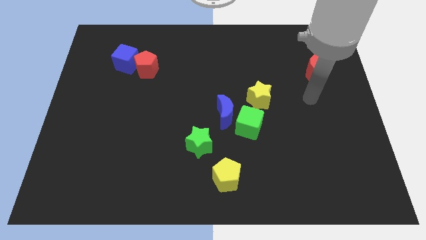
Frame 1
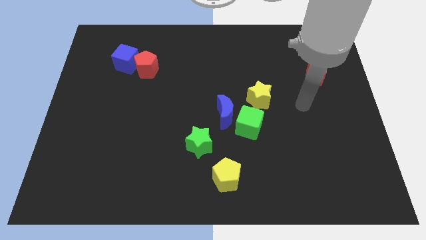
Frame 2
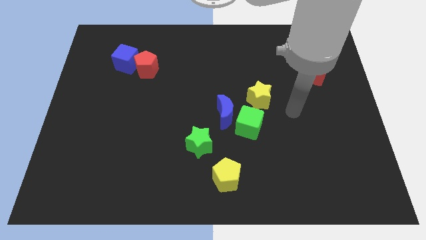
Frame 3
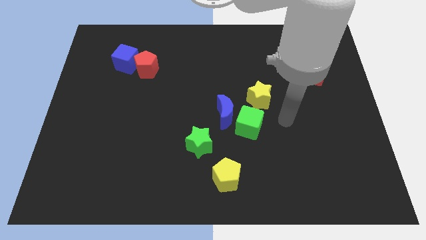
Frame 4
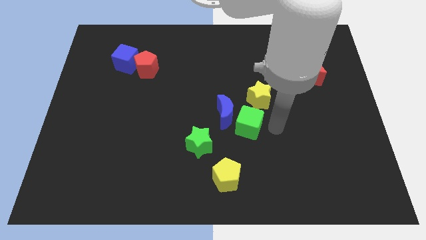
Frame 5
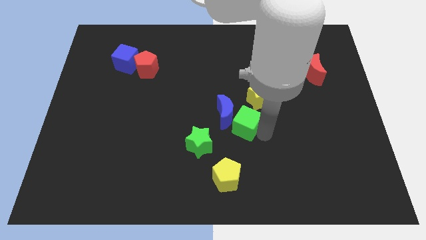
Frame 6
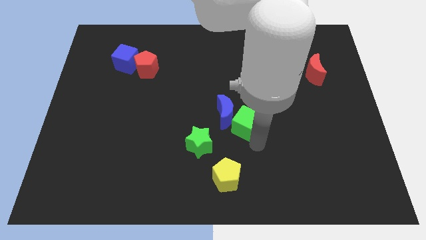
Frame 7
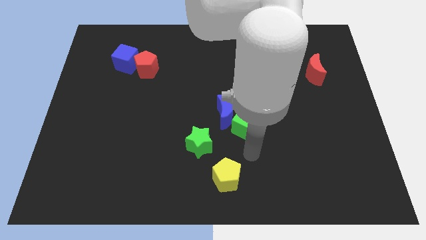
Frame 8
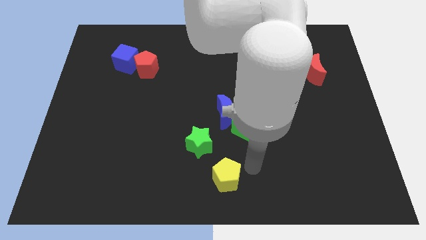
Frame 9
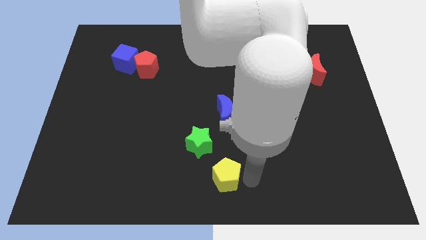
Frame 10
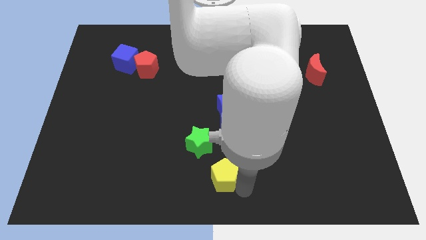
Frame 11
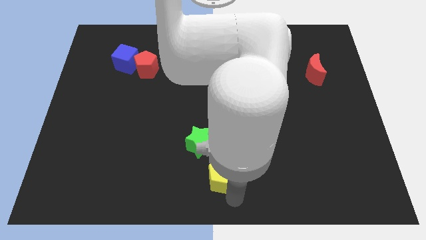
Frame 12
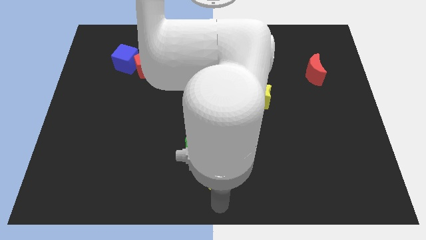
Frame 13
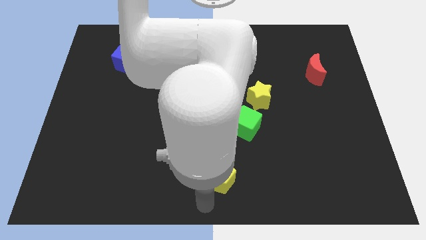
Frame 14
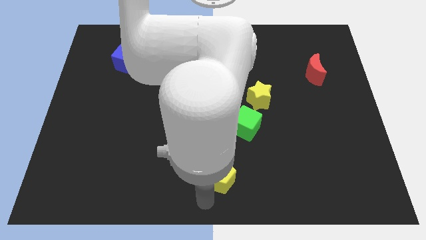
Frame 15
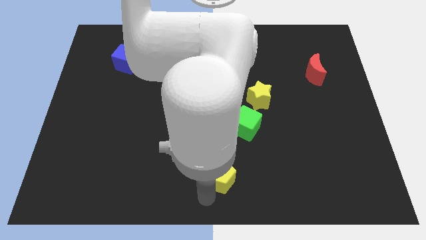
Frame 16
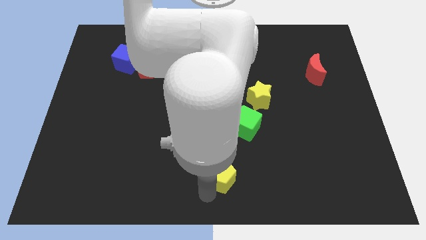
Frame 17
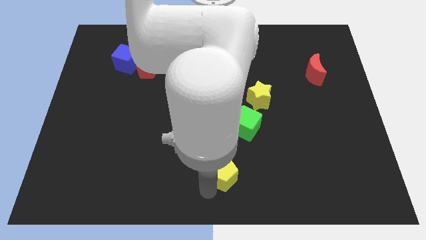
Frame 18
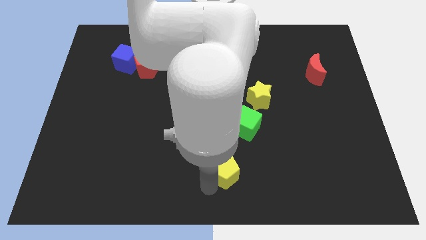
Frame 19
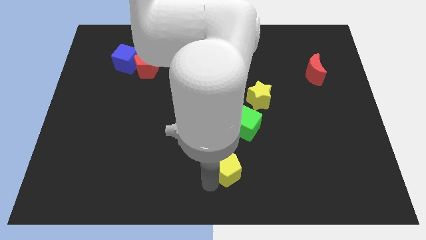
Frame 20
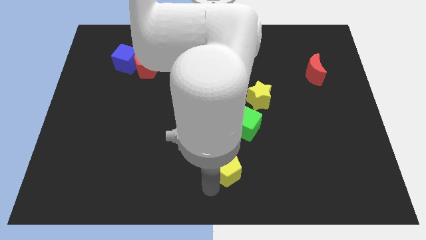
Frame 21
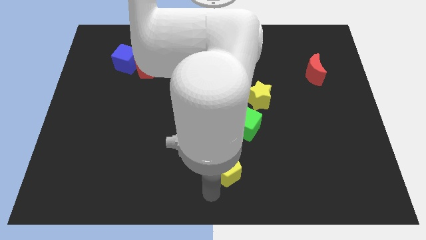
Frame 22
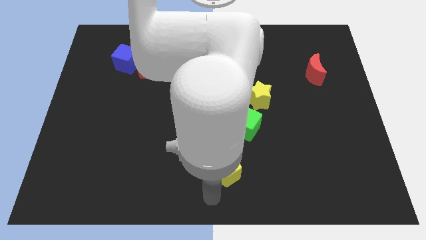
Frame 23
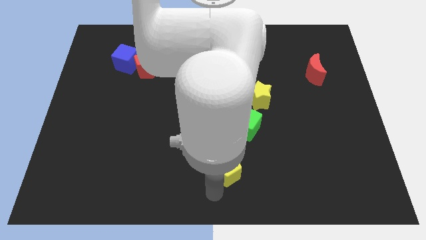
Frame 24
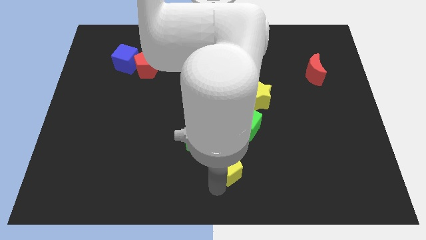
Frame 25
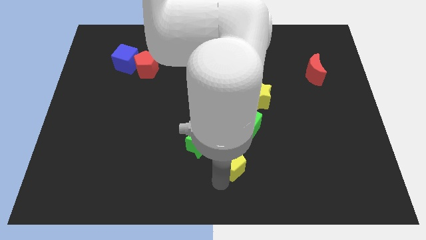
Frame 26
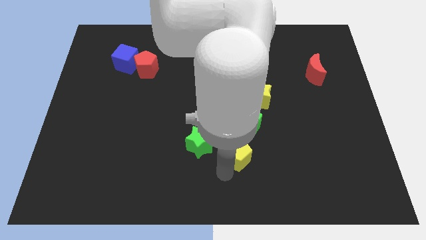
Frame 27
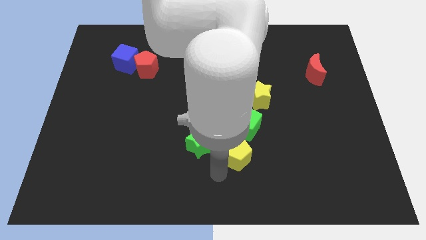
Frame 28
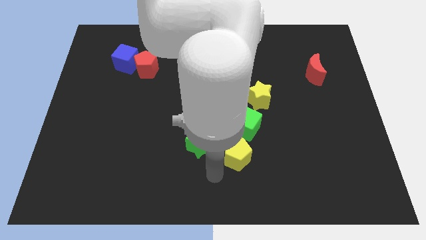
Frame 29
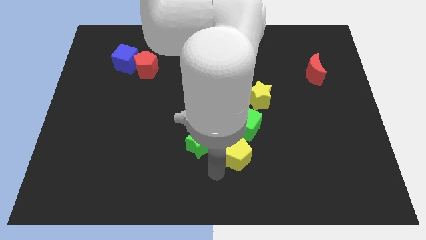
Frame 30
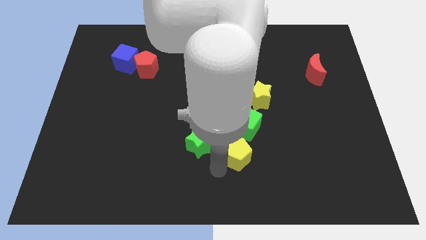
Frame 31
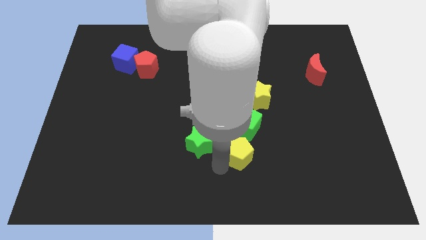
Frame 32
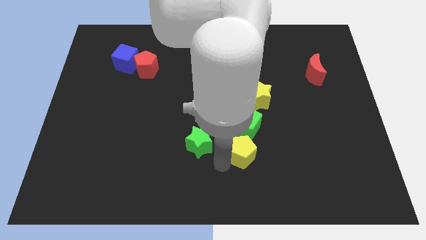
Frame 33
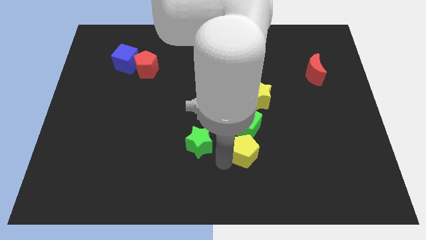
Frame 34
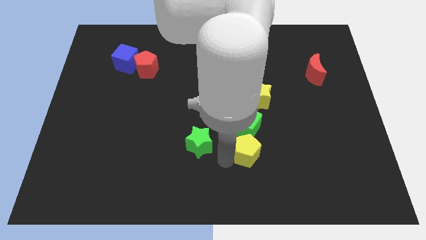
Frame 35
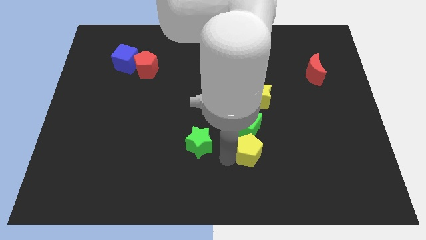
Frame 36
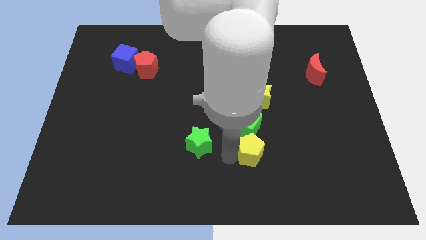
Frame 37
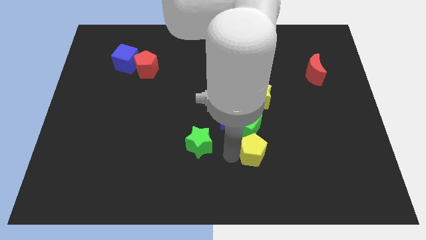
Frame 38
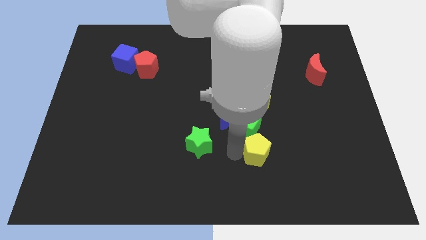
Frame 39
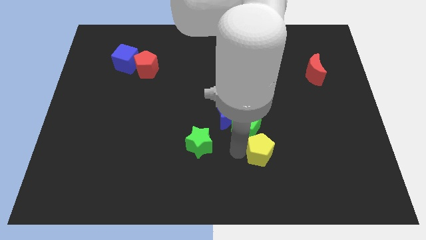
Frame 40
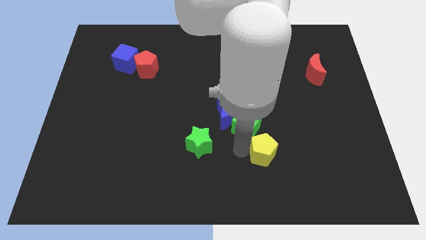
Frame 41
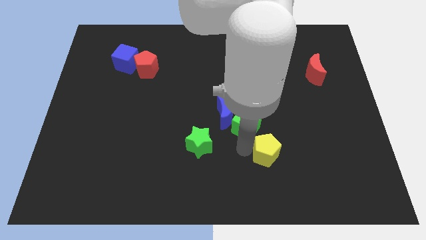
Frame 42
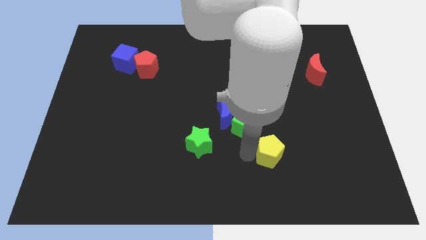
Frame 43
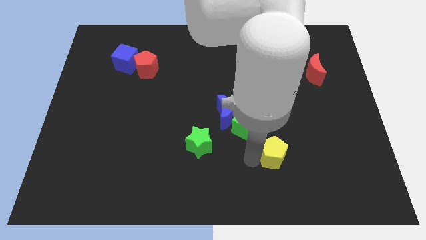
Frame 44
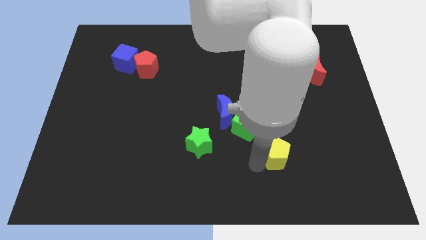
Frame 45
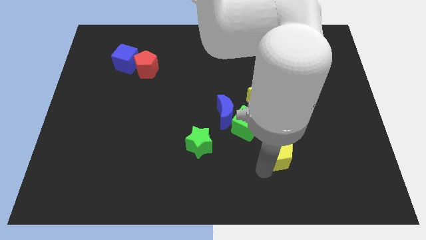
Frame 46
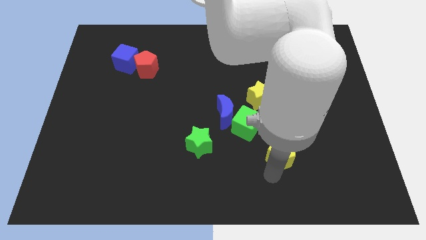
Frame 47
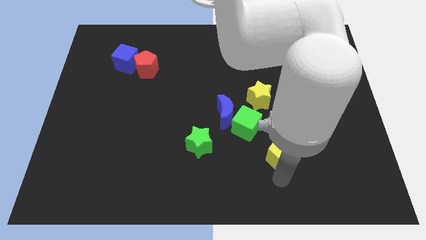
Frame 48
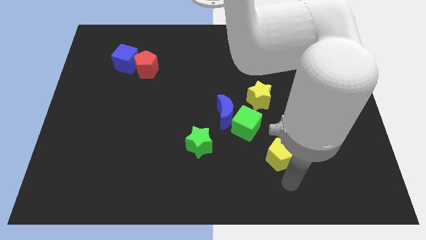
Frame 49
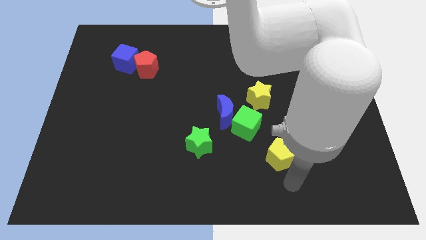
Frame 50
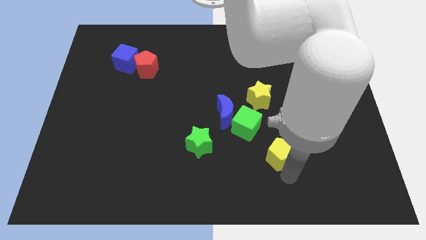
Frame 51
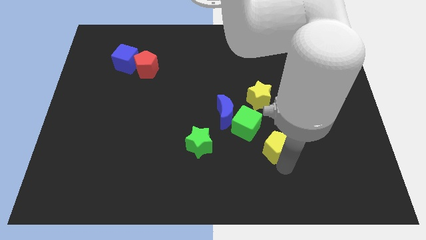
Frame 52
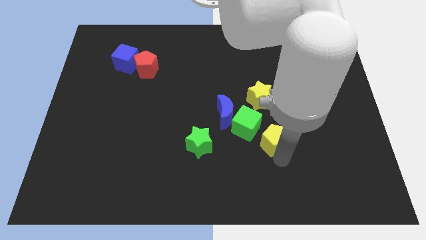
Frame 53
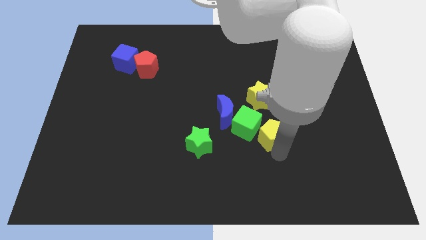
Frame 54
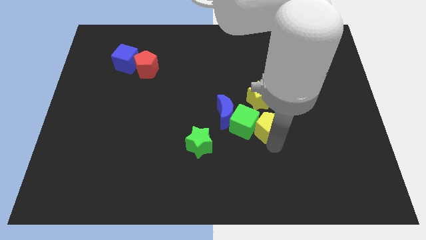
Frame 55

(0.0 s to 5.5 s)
move the yellow pentagon diagonally up and to the right of the green cube

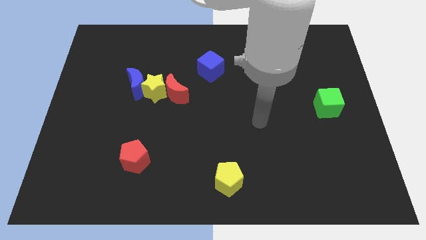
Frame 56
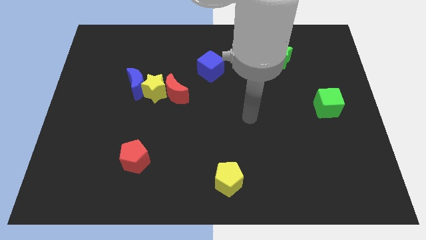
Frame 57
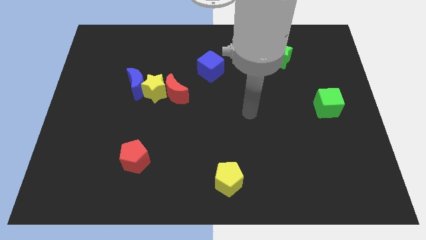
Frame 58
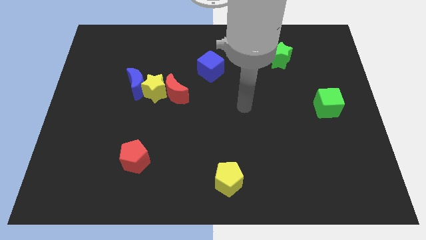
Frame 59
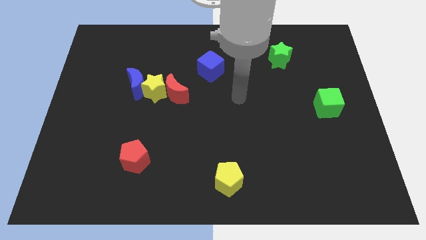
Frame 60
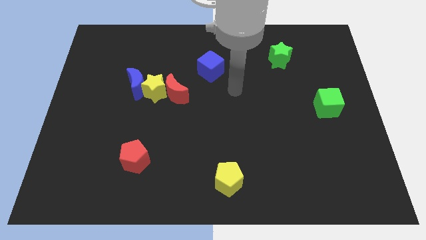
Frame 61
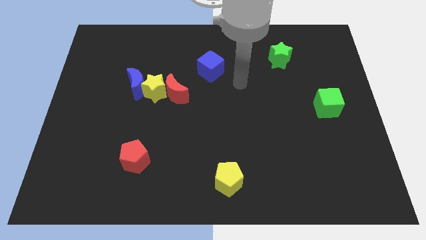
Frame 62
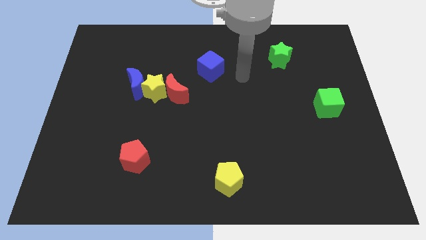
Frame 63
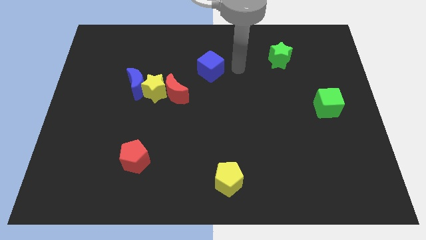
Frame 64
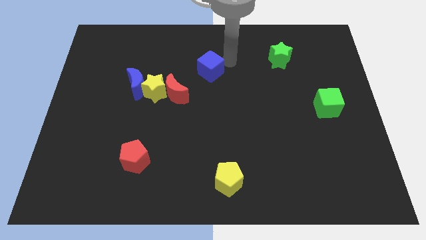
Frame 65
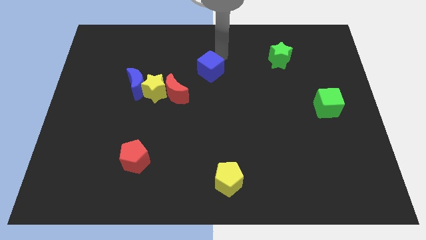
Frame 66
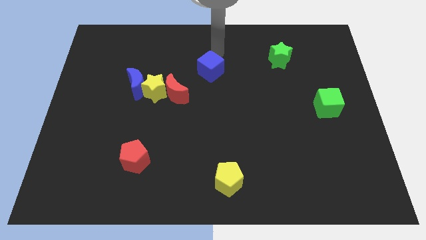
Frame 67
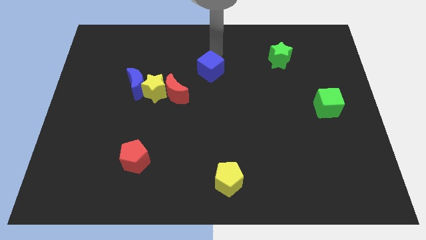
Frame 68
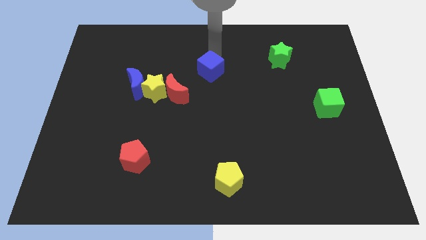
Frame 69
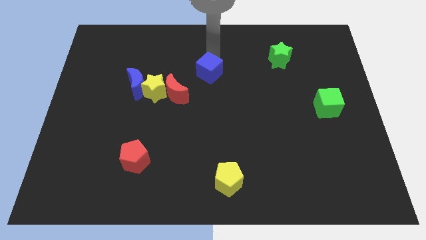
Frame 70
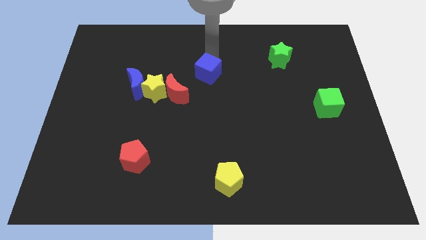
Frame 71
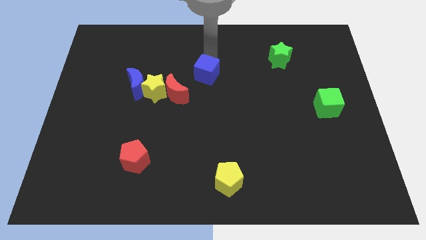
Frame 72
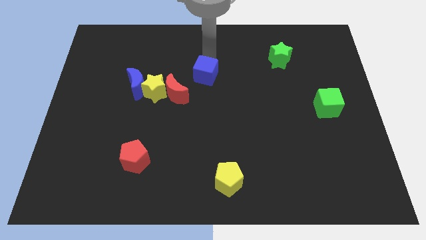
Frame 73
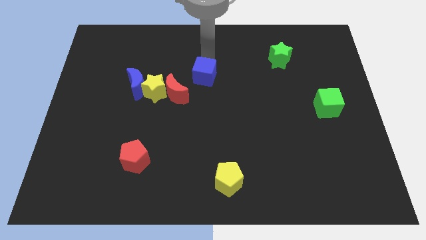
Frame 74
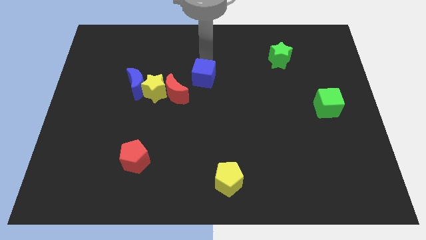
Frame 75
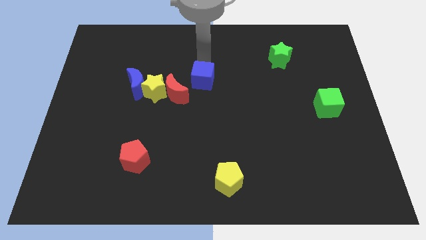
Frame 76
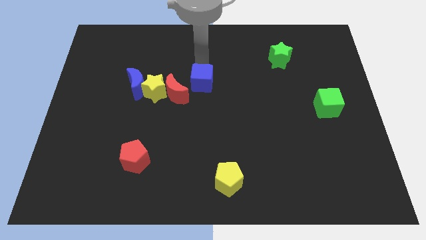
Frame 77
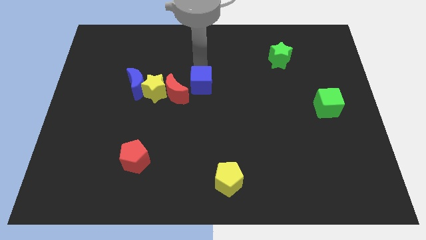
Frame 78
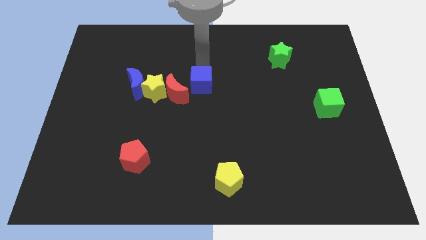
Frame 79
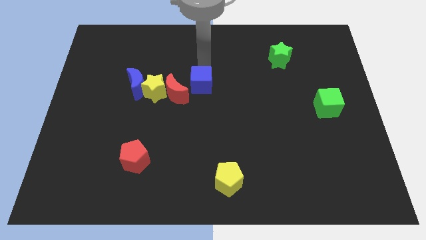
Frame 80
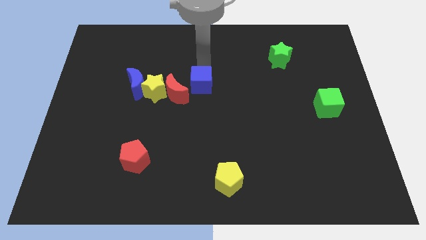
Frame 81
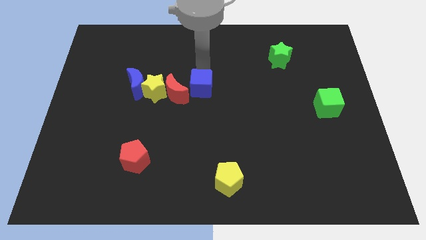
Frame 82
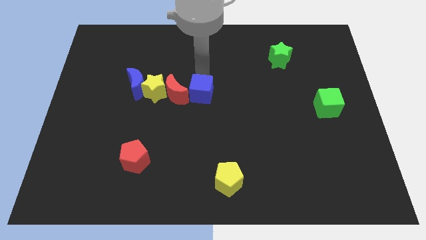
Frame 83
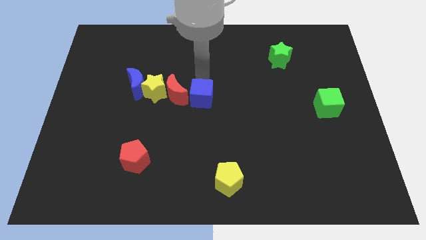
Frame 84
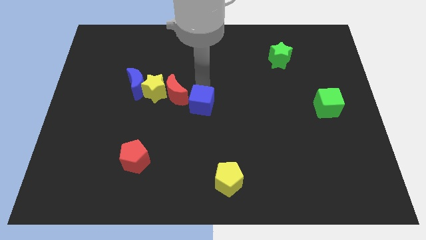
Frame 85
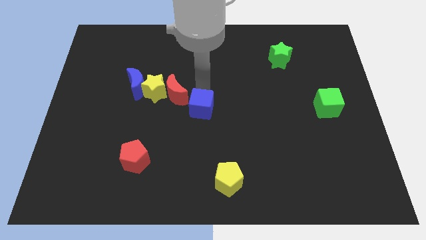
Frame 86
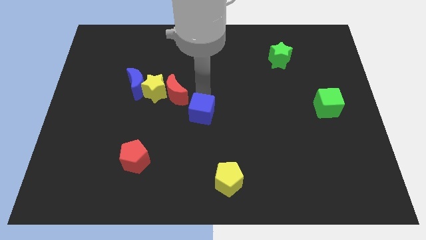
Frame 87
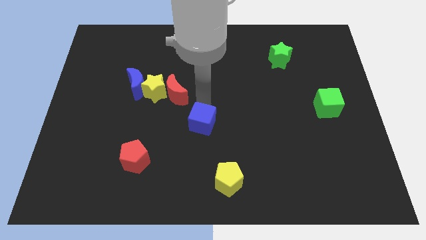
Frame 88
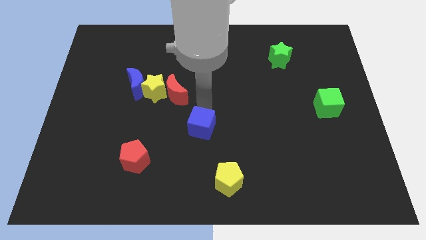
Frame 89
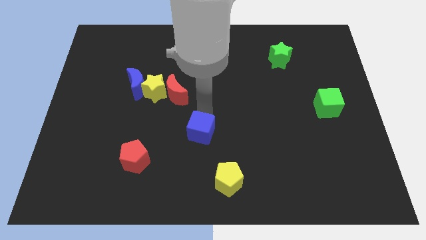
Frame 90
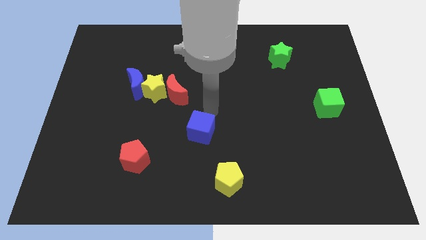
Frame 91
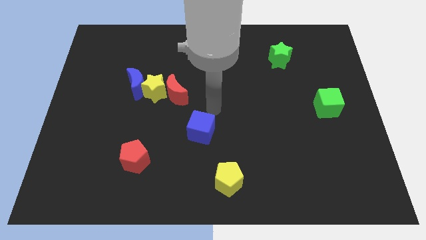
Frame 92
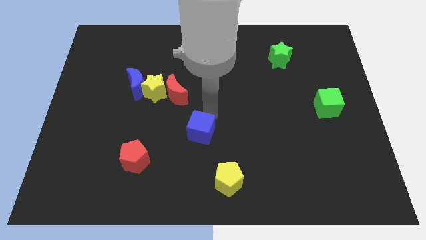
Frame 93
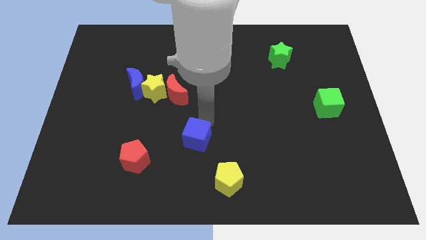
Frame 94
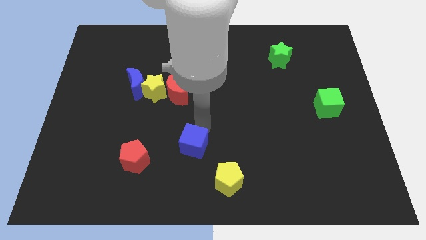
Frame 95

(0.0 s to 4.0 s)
put the blue cube to the right of the red pentagon
